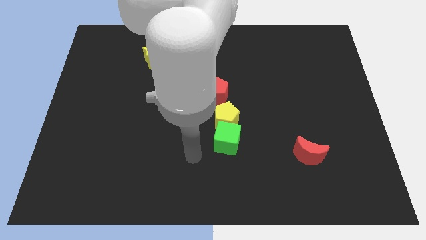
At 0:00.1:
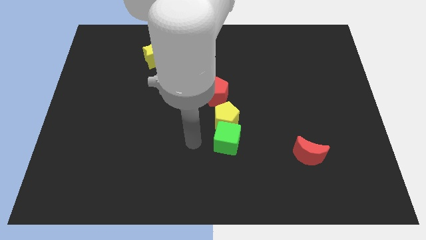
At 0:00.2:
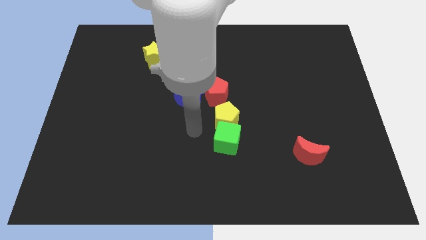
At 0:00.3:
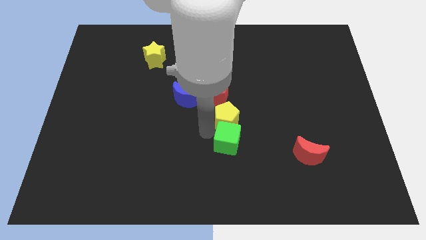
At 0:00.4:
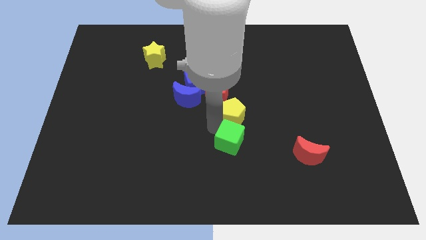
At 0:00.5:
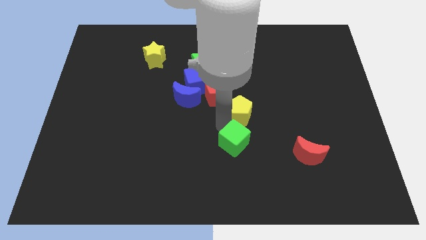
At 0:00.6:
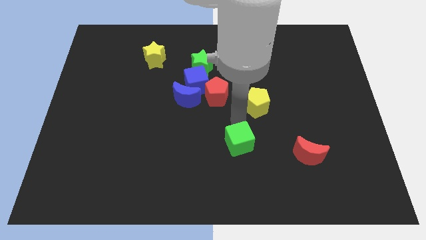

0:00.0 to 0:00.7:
move the green cube away from the yellow pentagon

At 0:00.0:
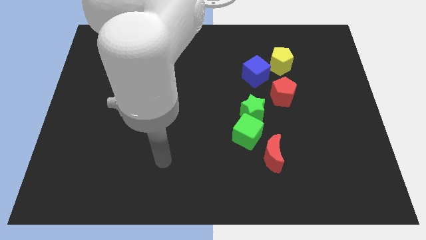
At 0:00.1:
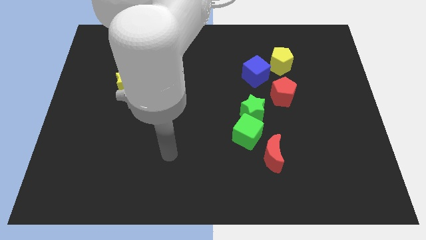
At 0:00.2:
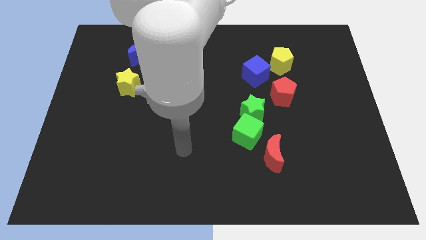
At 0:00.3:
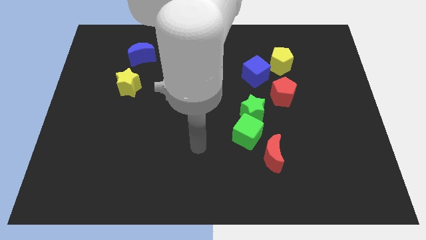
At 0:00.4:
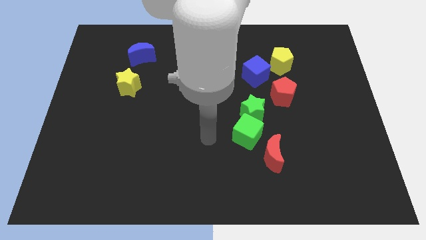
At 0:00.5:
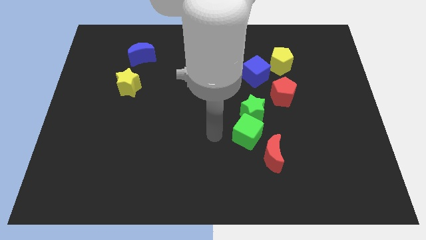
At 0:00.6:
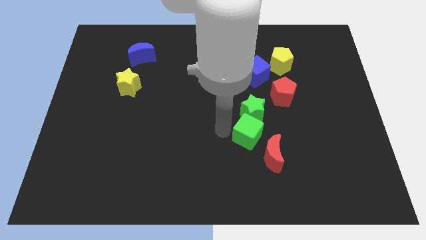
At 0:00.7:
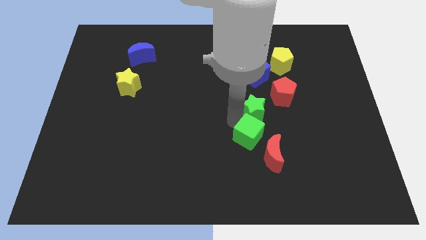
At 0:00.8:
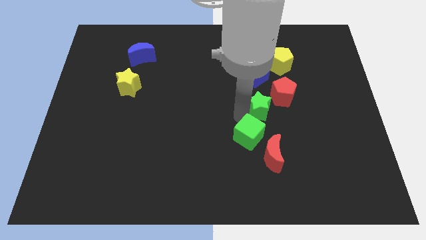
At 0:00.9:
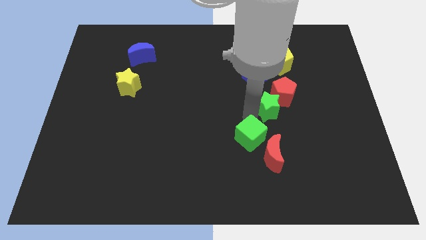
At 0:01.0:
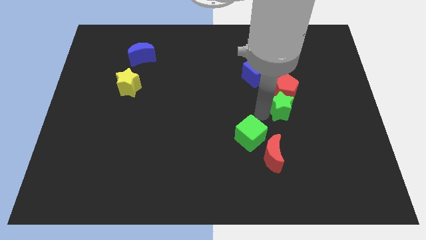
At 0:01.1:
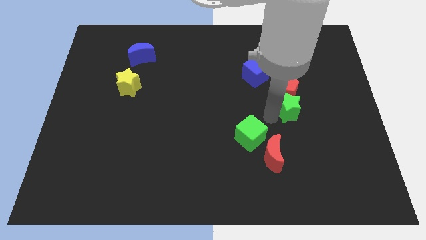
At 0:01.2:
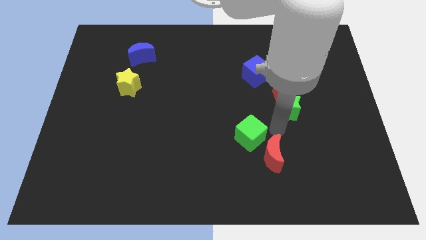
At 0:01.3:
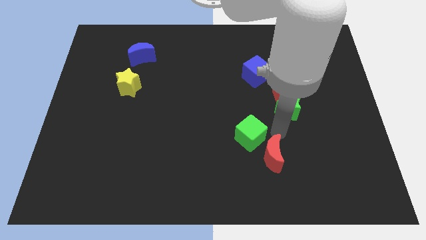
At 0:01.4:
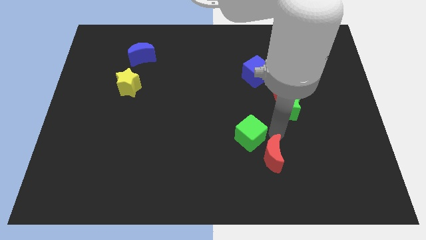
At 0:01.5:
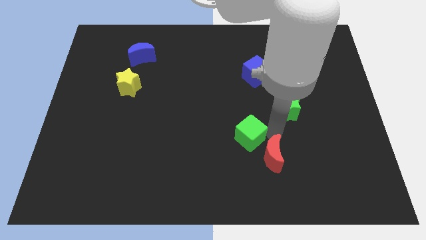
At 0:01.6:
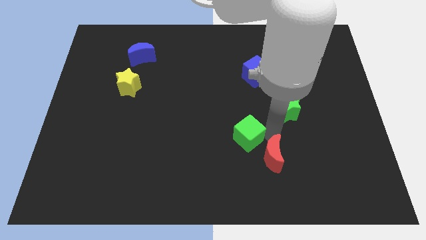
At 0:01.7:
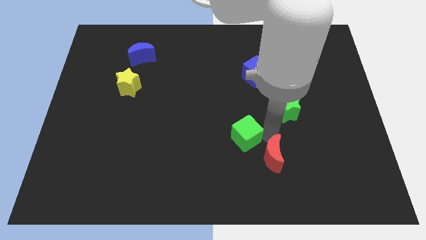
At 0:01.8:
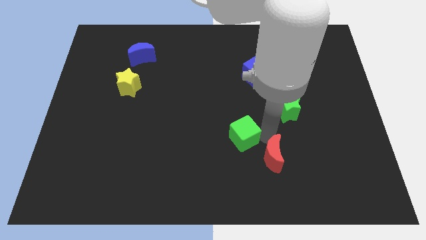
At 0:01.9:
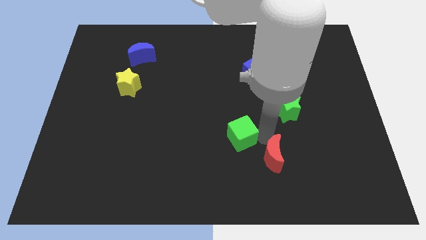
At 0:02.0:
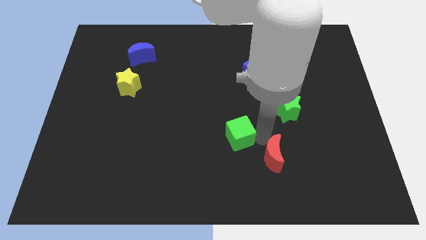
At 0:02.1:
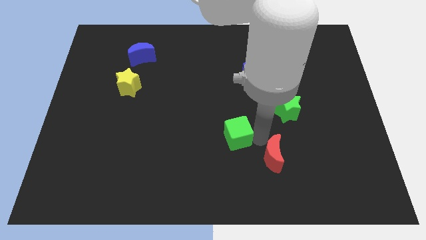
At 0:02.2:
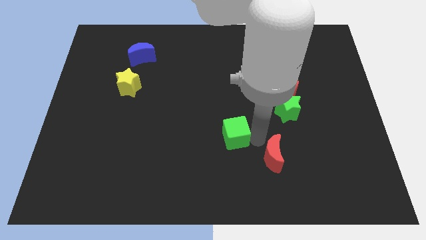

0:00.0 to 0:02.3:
move the green cube away from the green star and red moon

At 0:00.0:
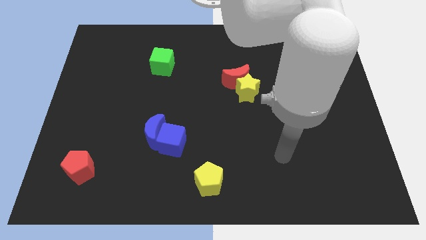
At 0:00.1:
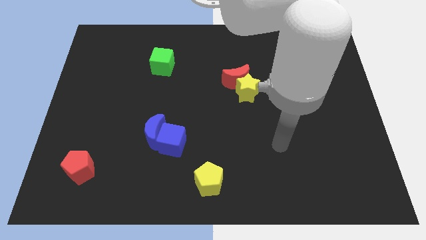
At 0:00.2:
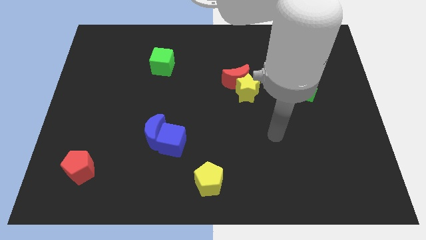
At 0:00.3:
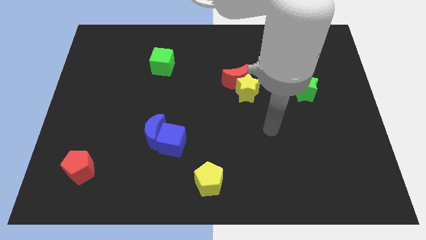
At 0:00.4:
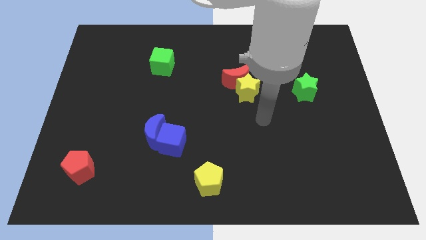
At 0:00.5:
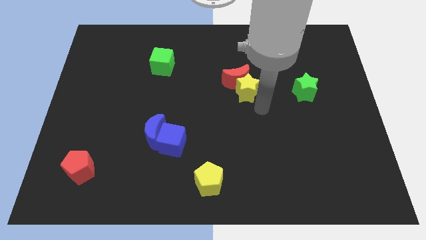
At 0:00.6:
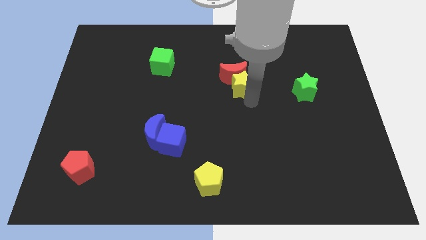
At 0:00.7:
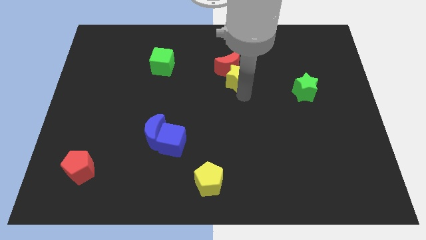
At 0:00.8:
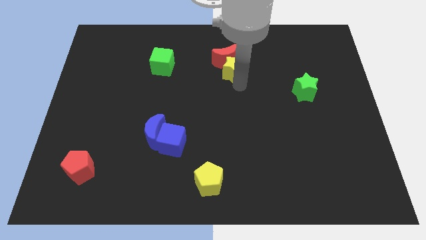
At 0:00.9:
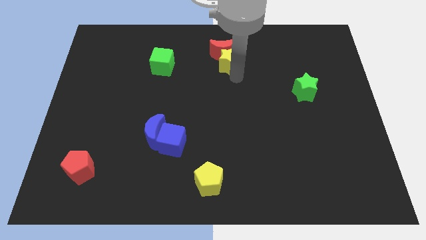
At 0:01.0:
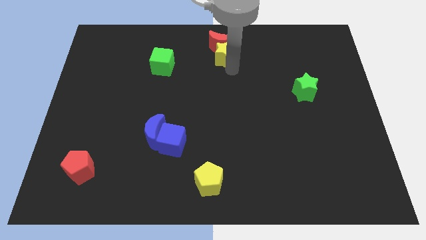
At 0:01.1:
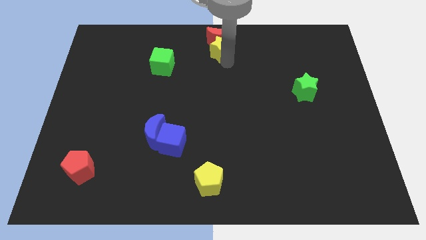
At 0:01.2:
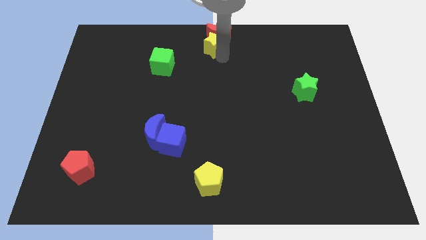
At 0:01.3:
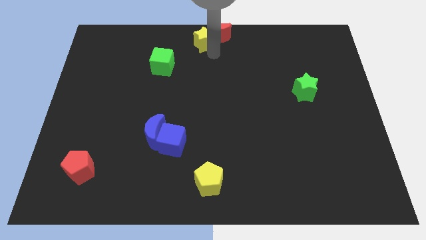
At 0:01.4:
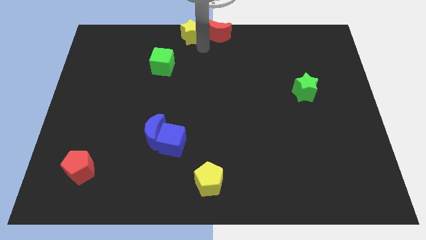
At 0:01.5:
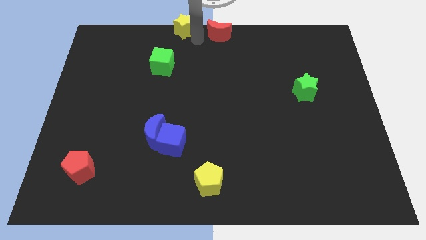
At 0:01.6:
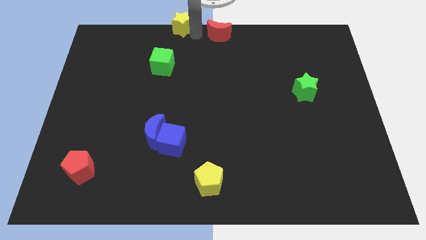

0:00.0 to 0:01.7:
move the red moon away from the yellow star

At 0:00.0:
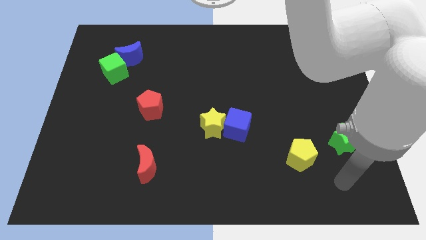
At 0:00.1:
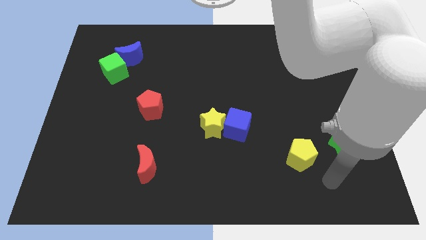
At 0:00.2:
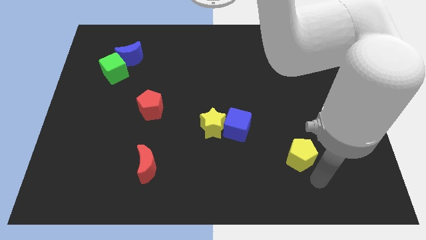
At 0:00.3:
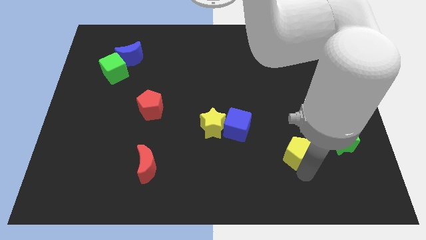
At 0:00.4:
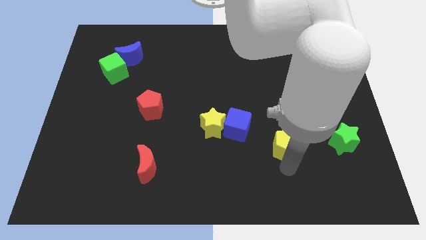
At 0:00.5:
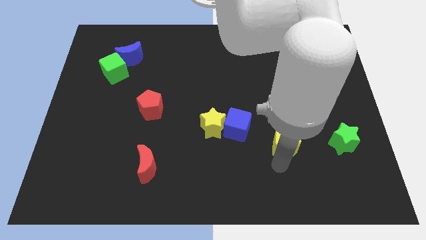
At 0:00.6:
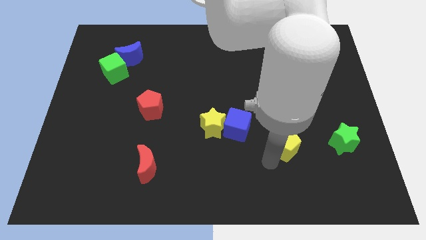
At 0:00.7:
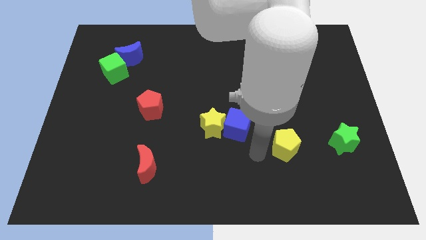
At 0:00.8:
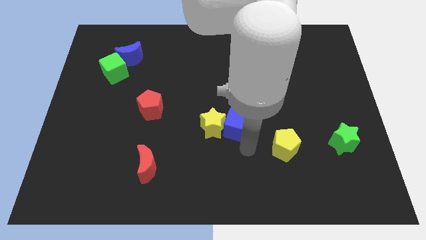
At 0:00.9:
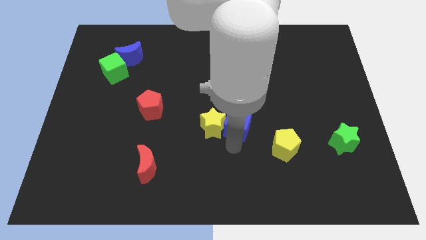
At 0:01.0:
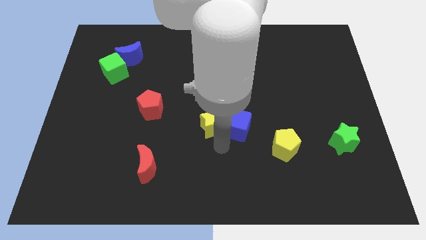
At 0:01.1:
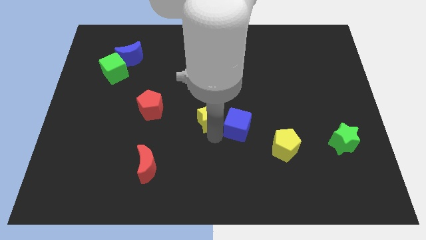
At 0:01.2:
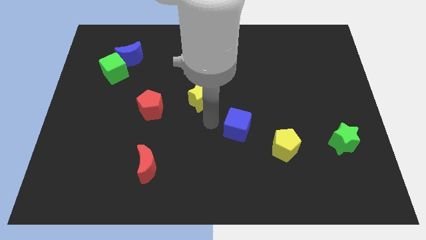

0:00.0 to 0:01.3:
move the blue cube away from the yellow star

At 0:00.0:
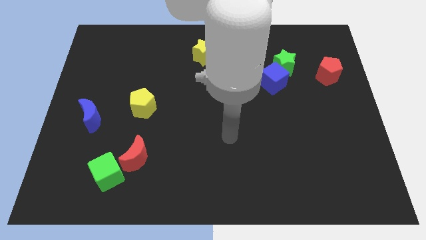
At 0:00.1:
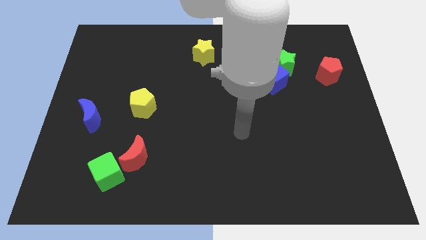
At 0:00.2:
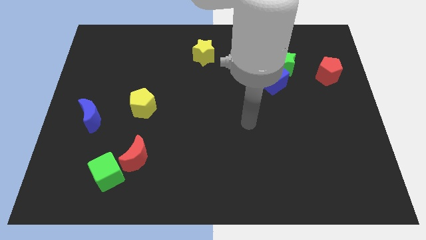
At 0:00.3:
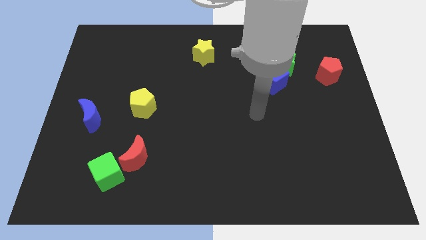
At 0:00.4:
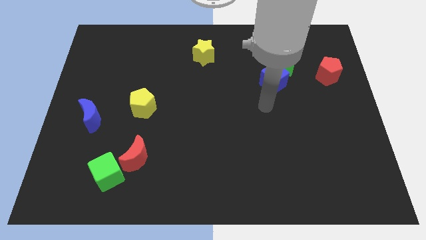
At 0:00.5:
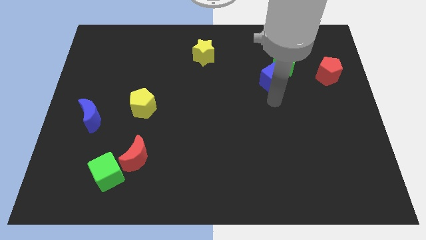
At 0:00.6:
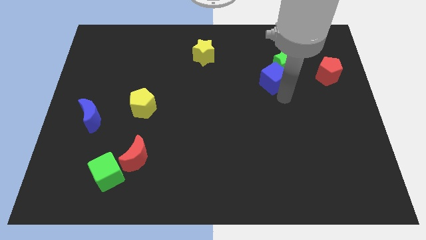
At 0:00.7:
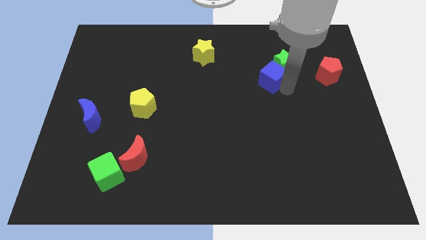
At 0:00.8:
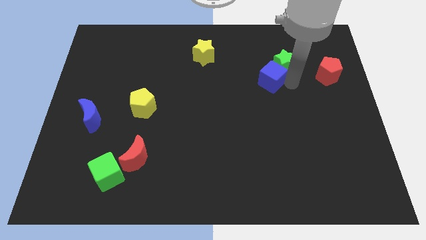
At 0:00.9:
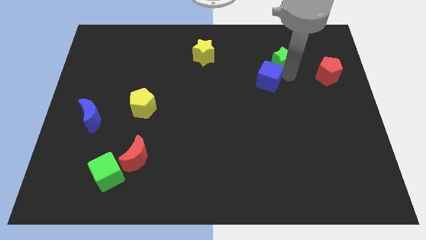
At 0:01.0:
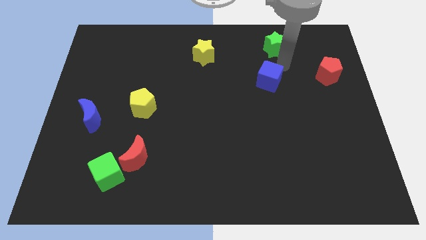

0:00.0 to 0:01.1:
pull the blue cube apart from the green star

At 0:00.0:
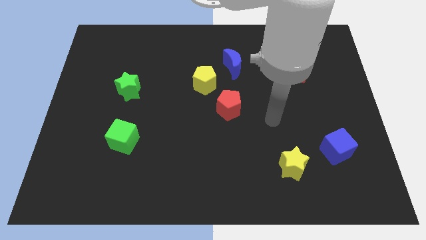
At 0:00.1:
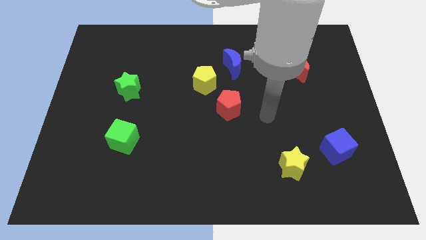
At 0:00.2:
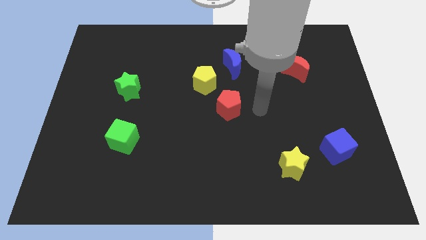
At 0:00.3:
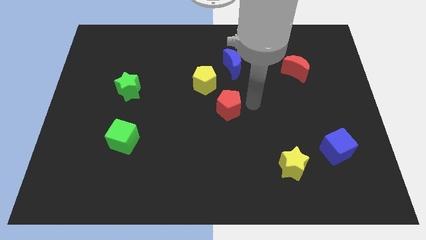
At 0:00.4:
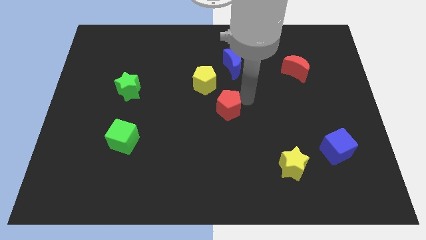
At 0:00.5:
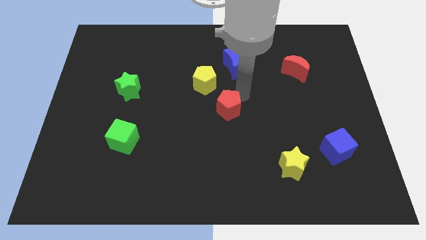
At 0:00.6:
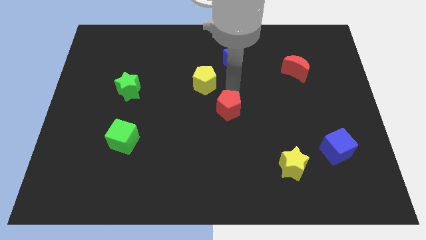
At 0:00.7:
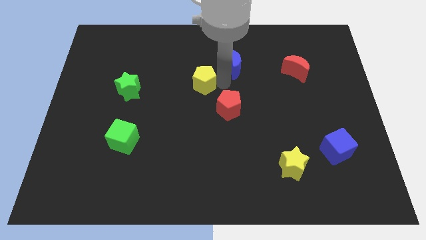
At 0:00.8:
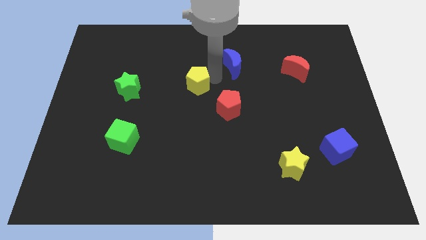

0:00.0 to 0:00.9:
separate the blue moon from the yellow pentagon

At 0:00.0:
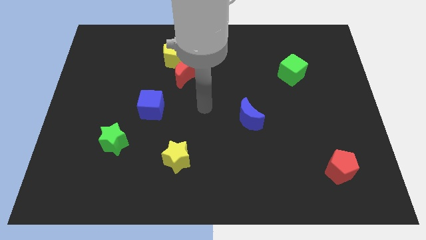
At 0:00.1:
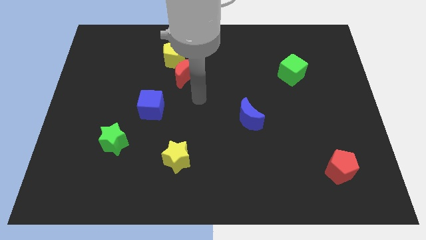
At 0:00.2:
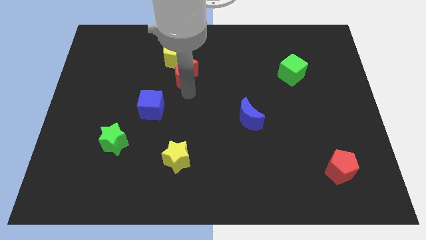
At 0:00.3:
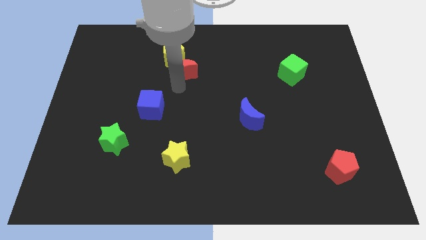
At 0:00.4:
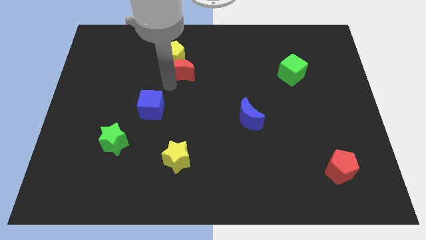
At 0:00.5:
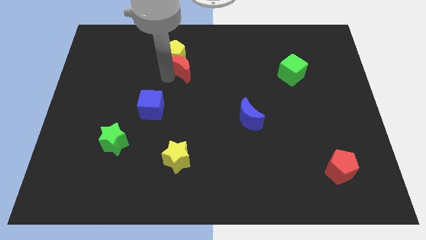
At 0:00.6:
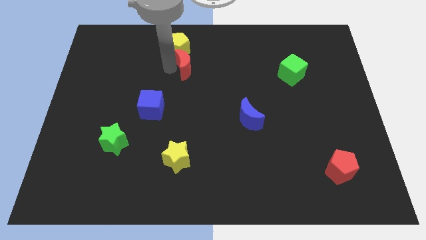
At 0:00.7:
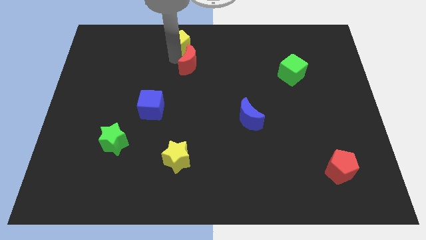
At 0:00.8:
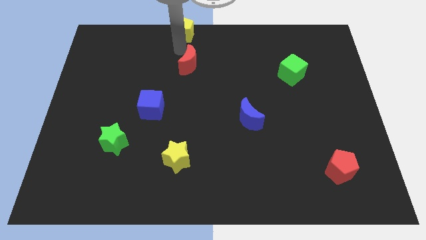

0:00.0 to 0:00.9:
pull the red moon apart from the yellow pentagon

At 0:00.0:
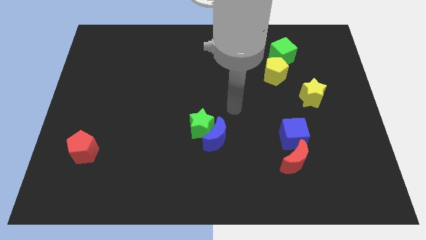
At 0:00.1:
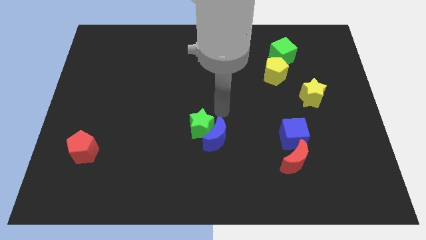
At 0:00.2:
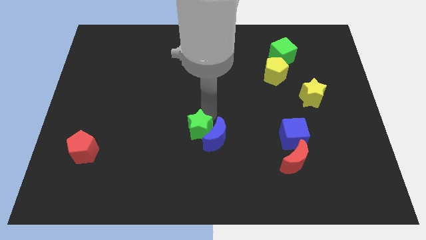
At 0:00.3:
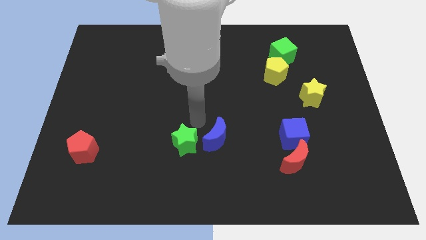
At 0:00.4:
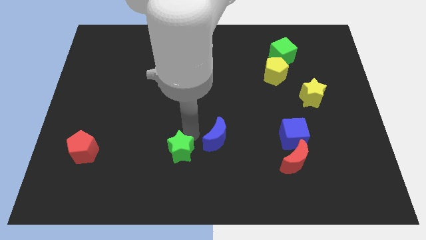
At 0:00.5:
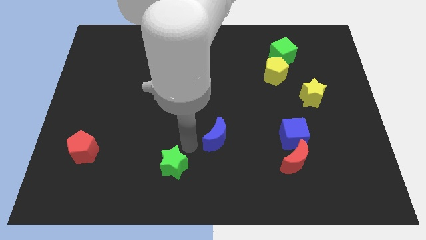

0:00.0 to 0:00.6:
move the blue moon away from the green star
